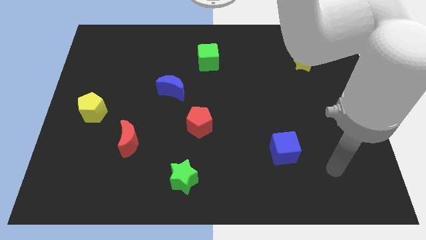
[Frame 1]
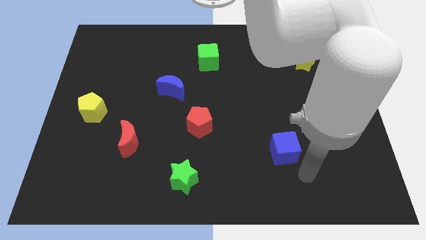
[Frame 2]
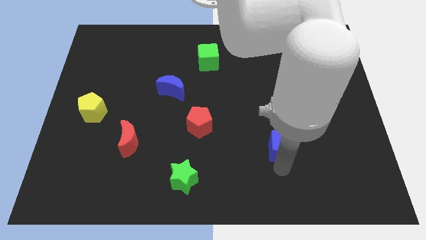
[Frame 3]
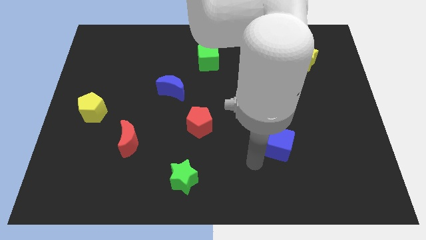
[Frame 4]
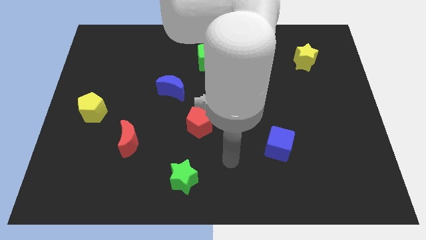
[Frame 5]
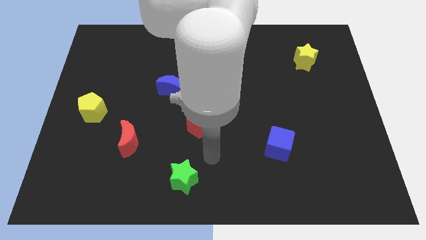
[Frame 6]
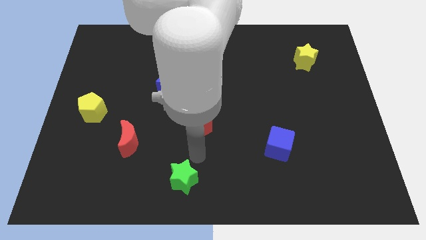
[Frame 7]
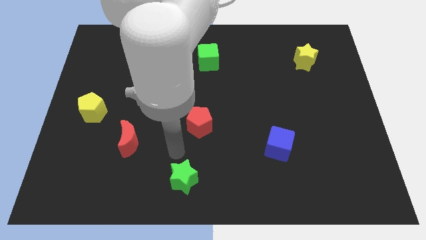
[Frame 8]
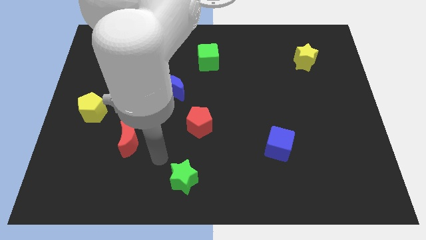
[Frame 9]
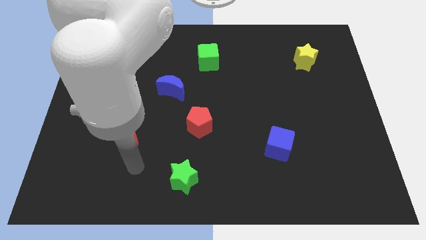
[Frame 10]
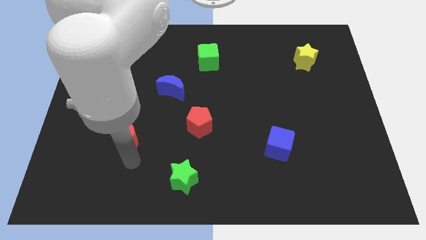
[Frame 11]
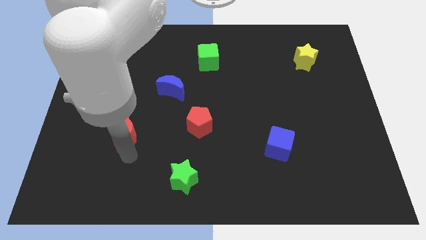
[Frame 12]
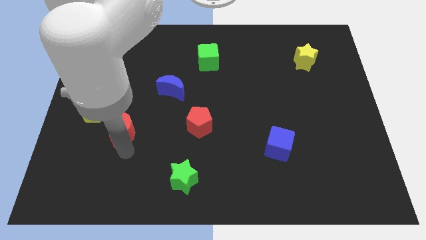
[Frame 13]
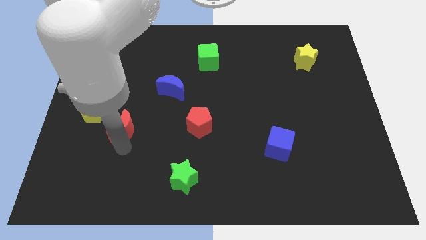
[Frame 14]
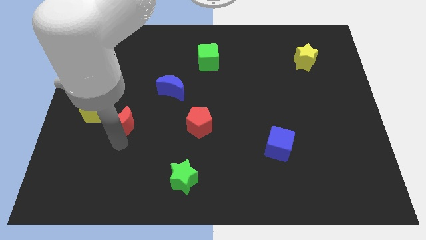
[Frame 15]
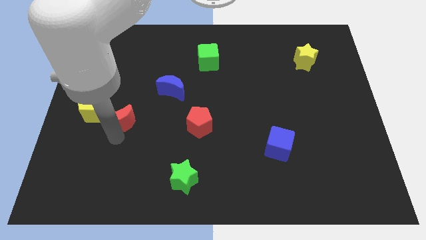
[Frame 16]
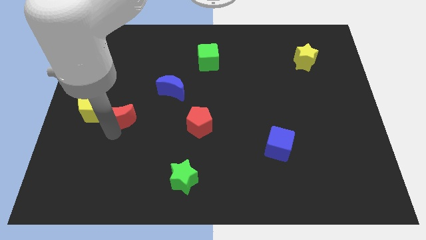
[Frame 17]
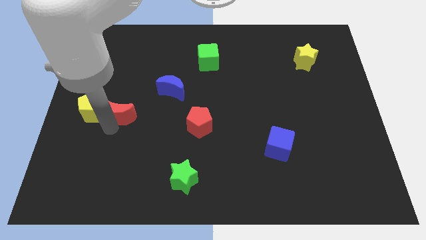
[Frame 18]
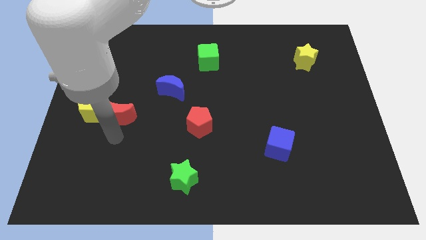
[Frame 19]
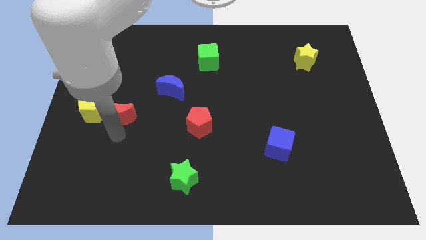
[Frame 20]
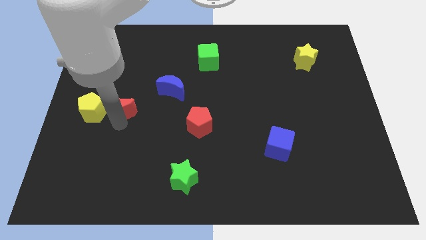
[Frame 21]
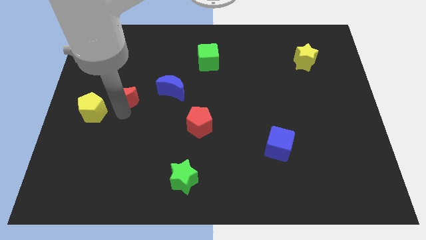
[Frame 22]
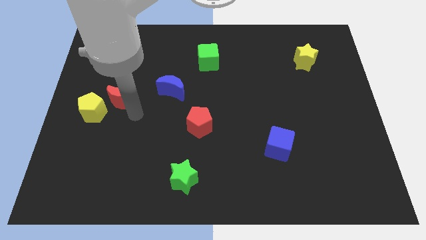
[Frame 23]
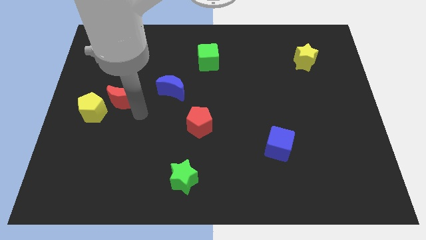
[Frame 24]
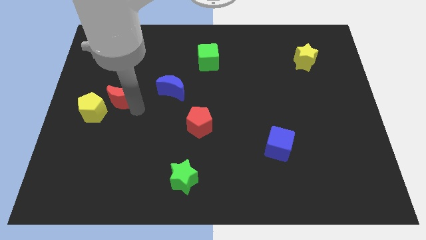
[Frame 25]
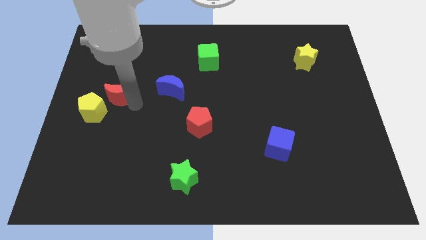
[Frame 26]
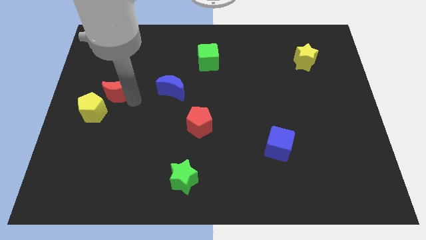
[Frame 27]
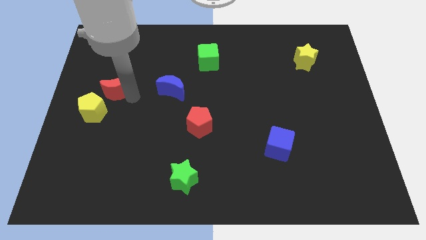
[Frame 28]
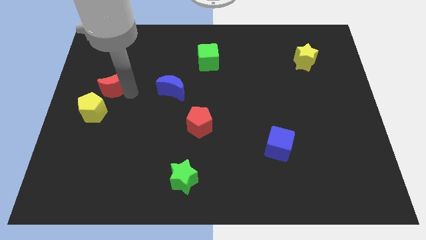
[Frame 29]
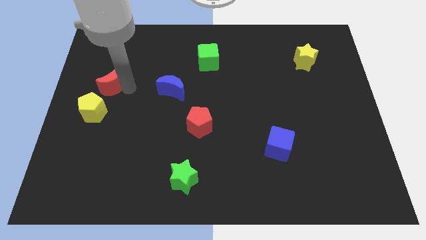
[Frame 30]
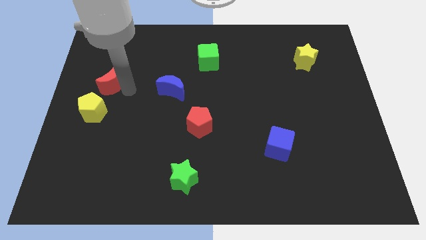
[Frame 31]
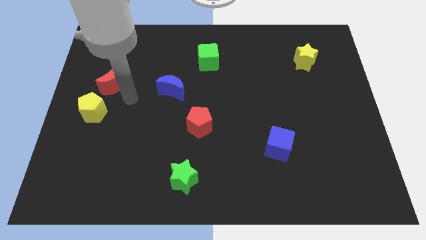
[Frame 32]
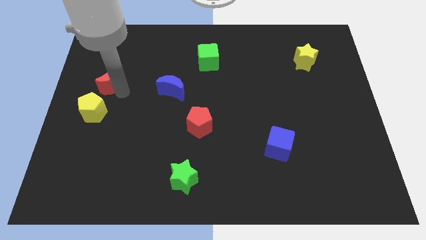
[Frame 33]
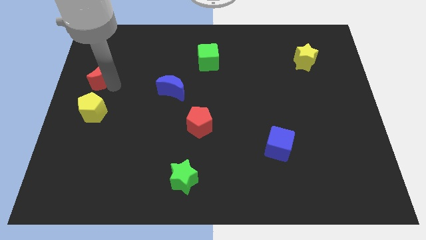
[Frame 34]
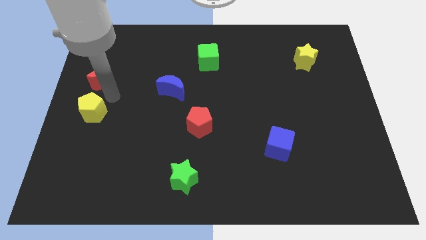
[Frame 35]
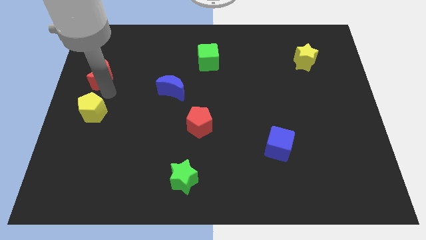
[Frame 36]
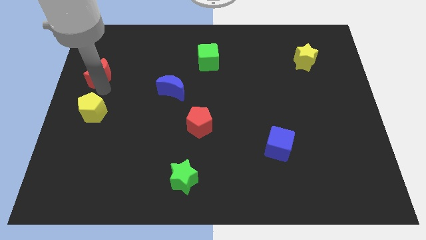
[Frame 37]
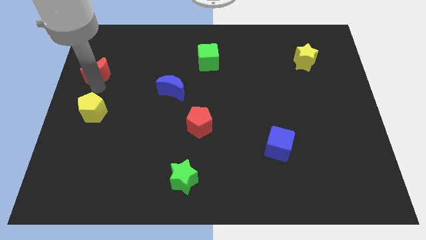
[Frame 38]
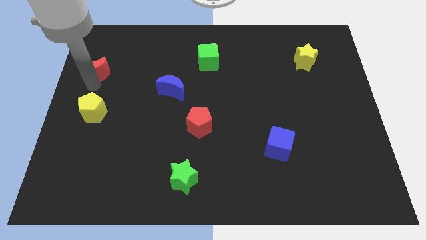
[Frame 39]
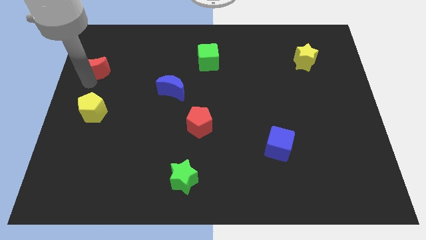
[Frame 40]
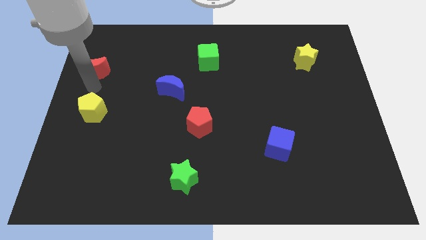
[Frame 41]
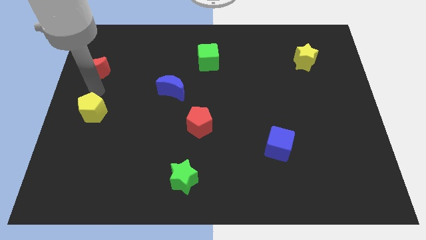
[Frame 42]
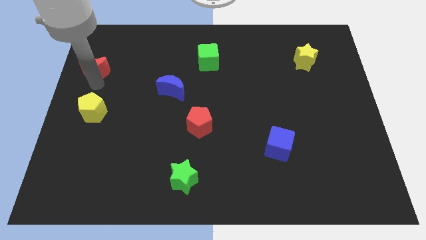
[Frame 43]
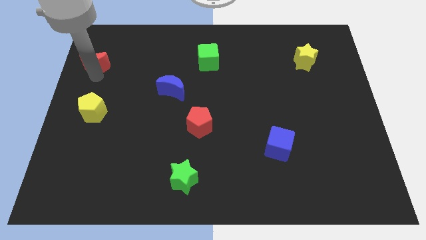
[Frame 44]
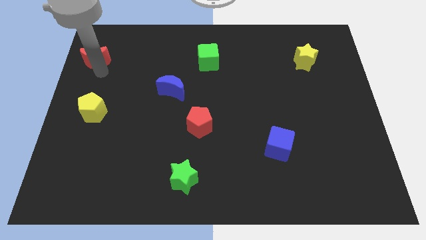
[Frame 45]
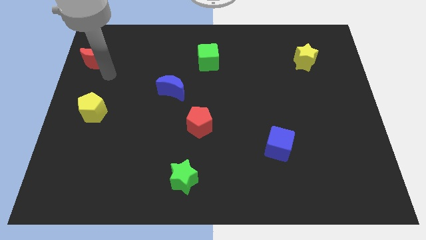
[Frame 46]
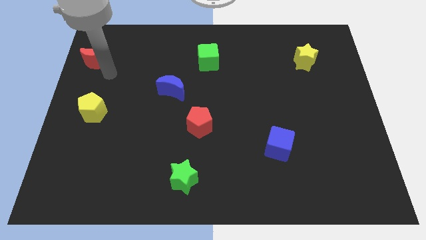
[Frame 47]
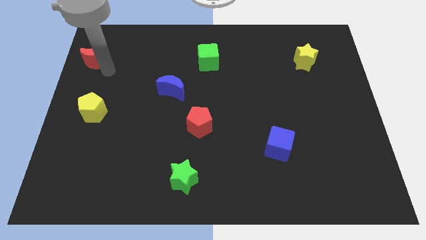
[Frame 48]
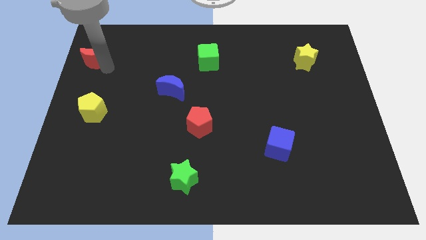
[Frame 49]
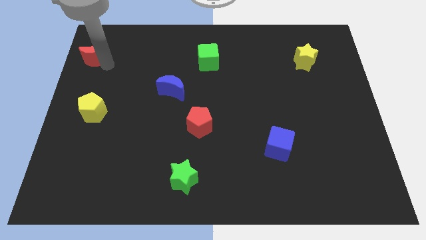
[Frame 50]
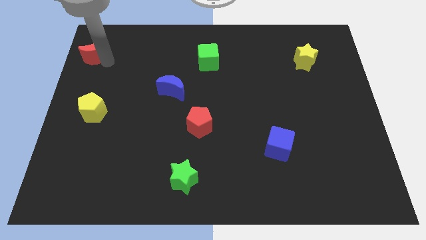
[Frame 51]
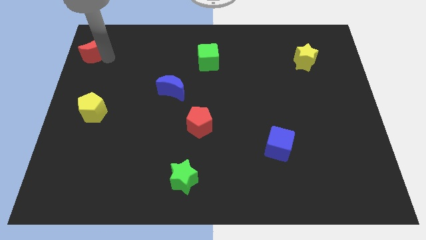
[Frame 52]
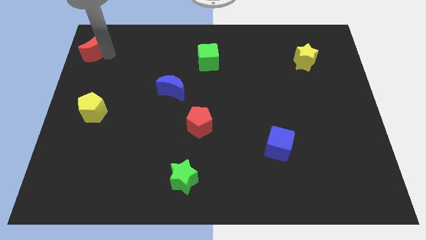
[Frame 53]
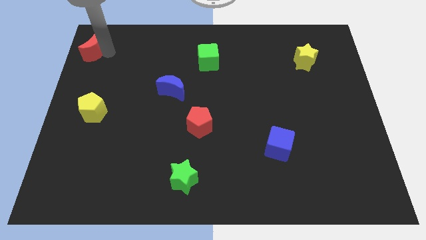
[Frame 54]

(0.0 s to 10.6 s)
slide the red moon to the upper left corner
